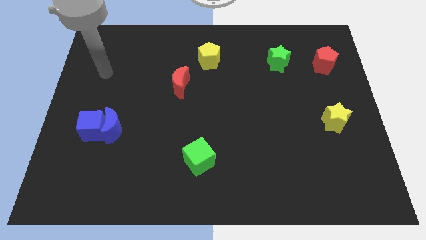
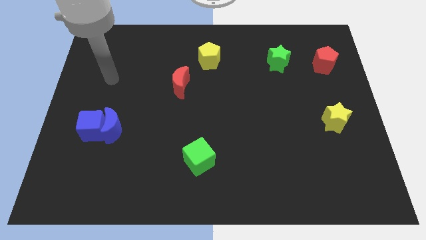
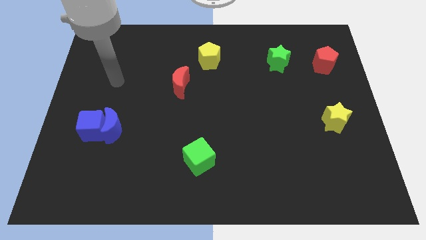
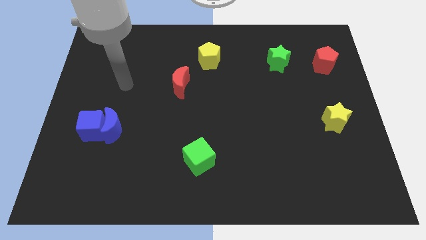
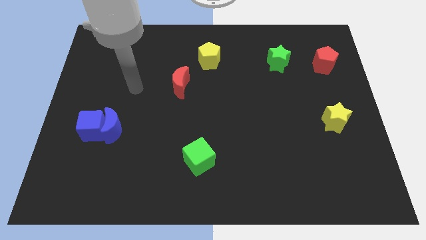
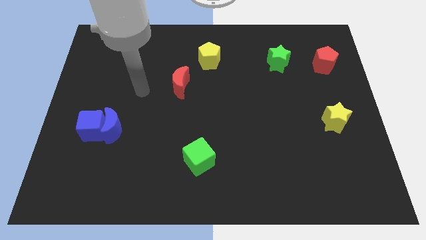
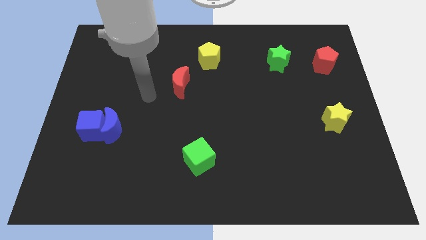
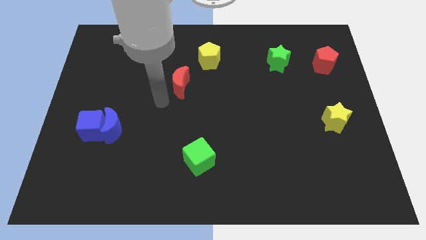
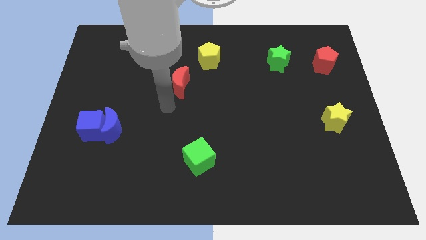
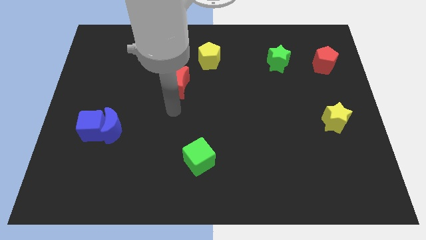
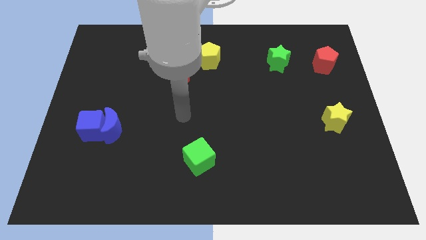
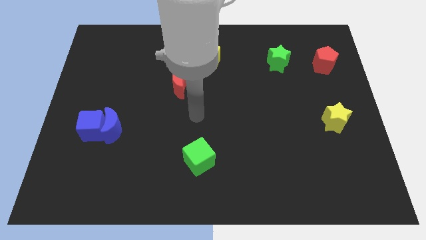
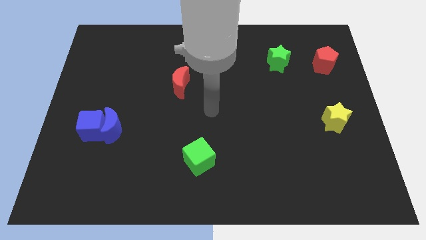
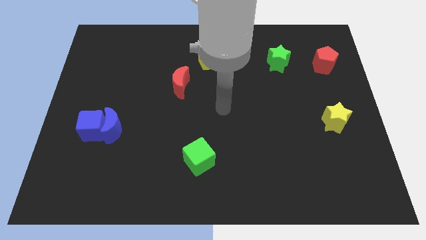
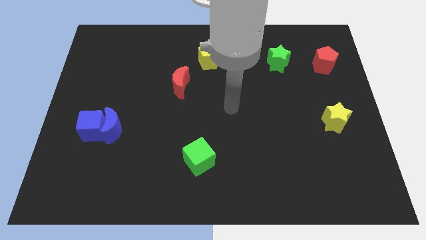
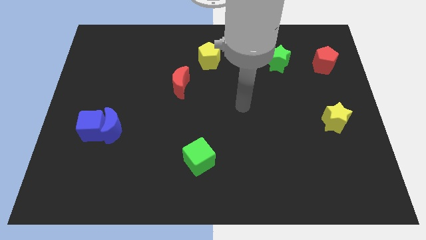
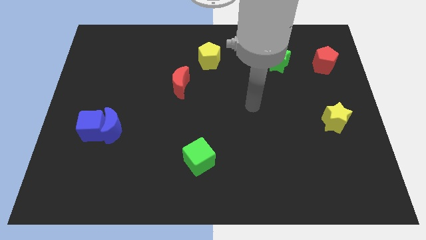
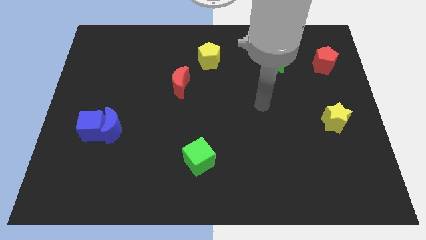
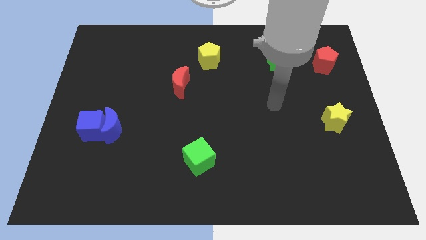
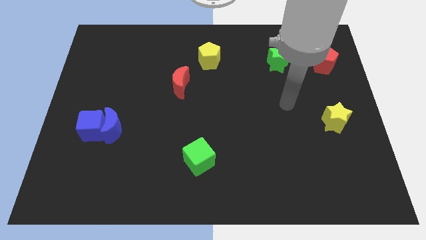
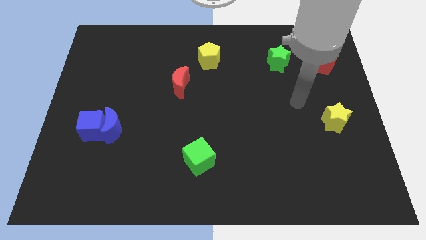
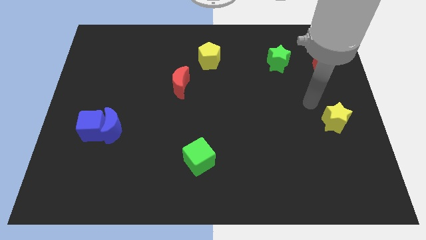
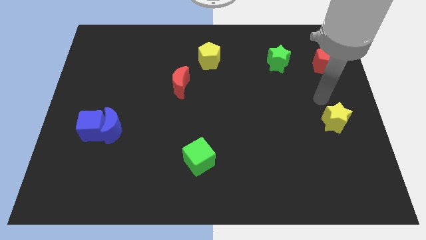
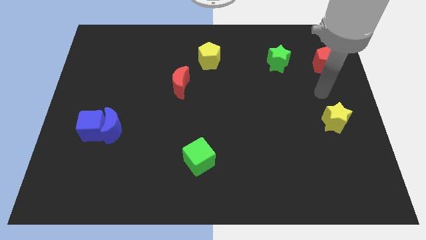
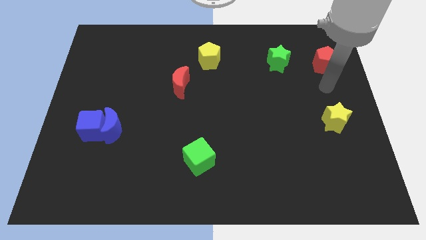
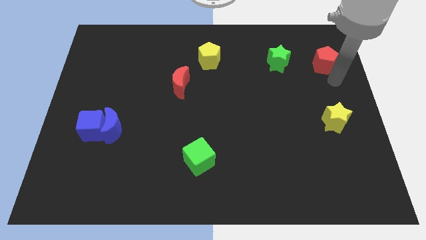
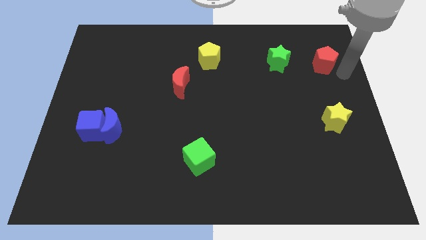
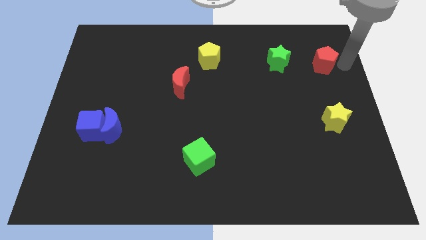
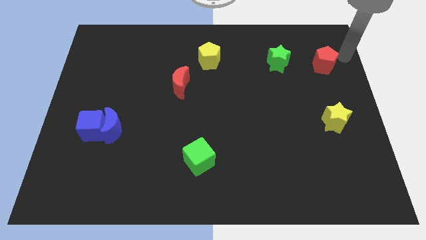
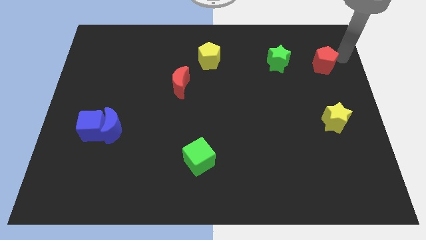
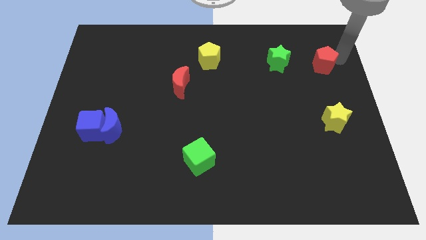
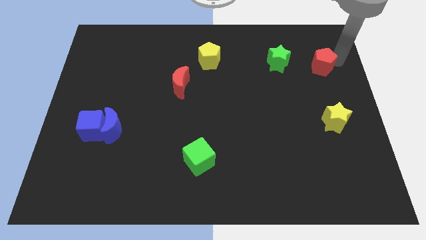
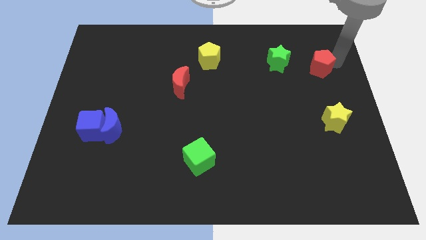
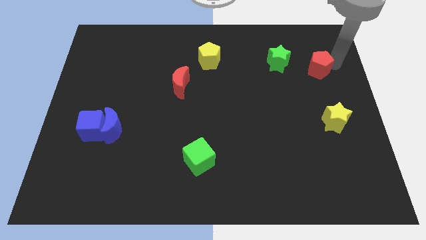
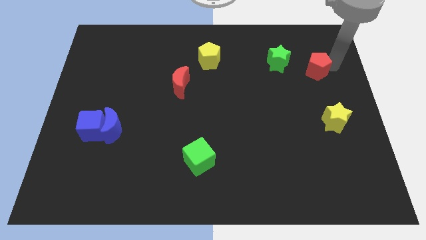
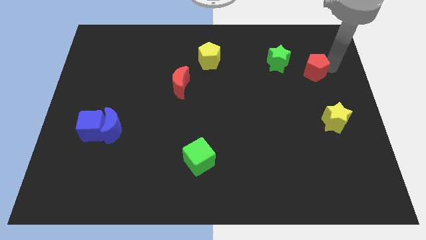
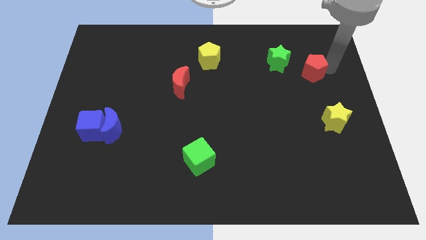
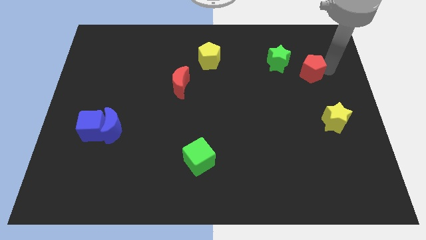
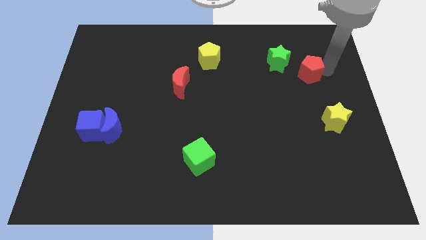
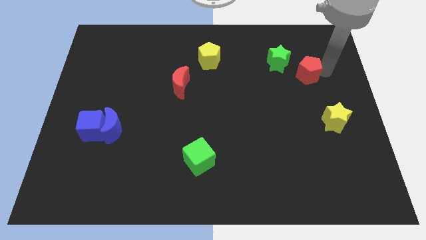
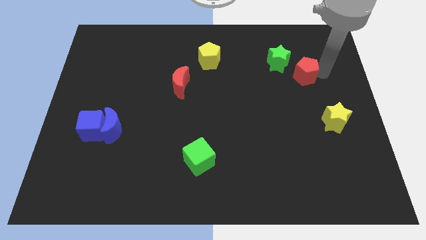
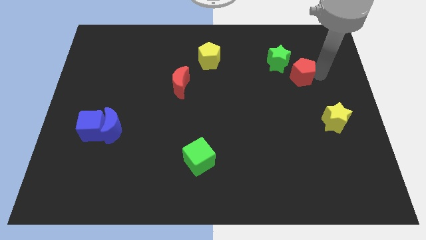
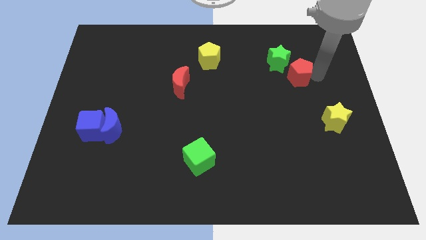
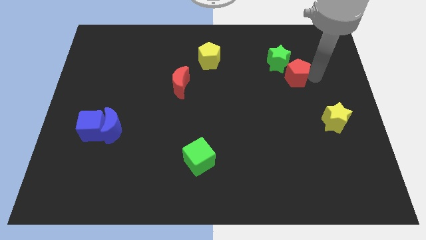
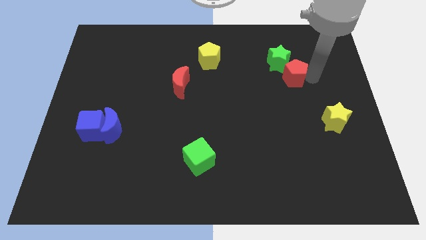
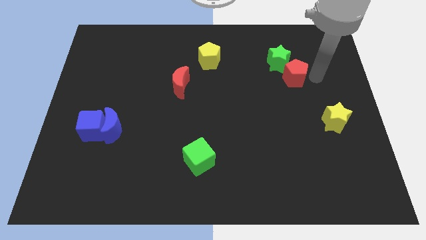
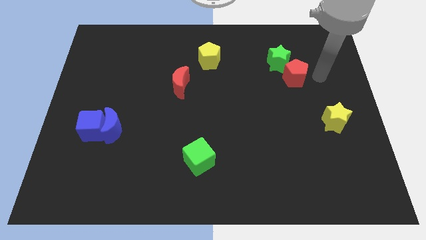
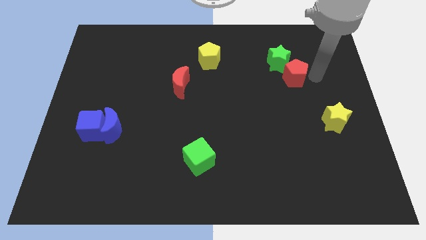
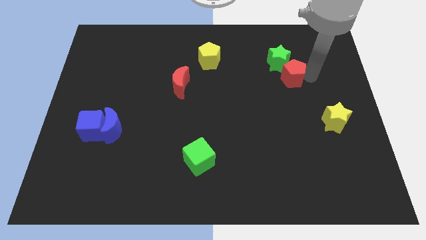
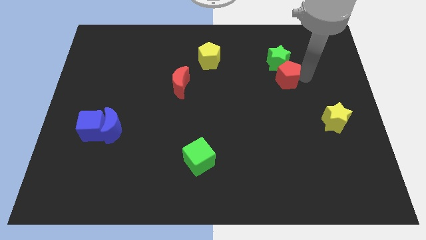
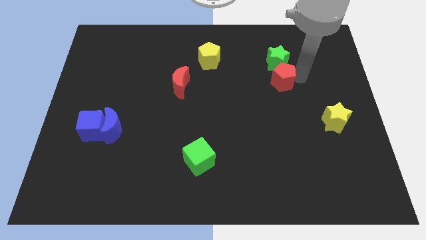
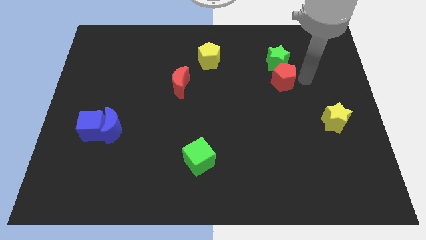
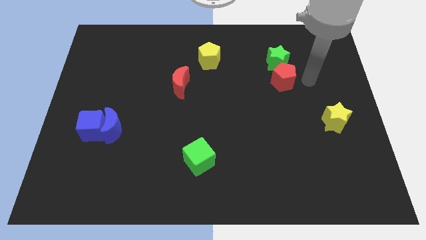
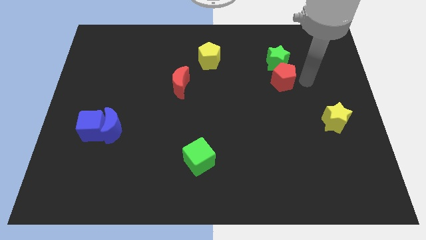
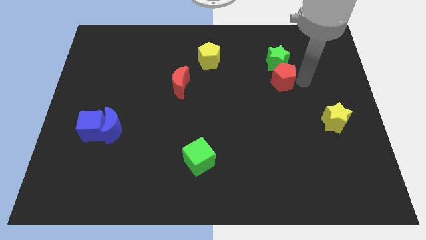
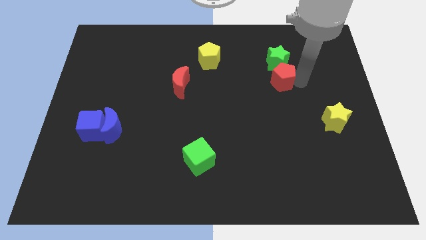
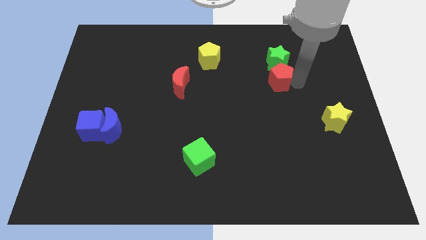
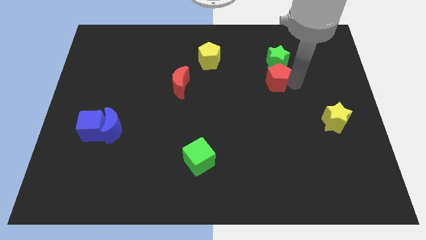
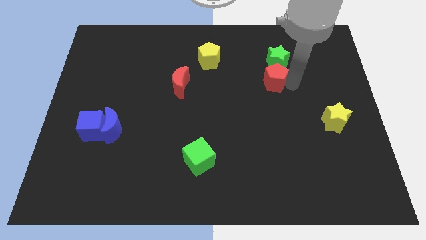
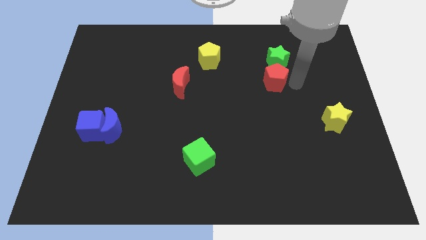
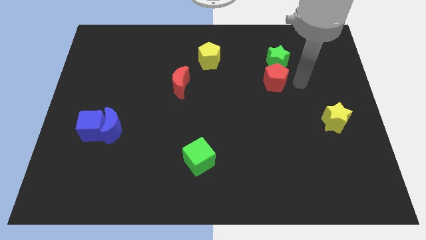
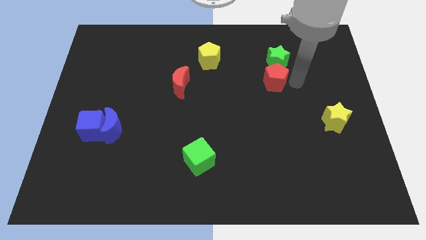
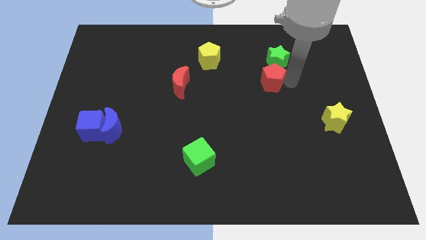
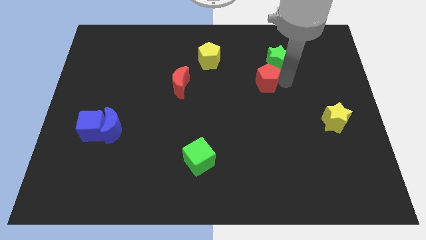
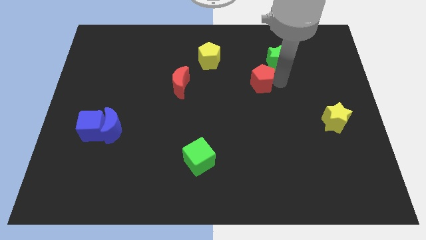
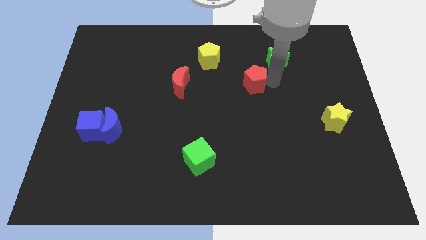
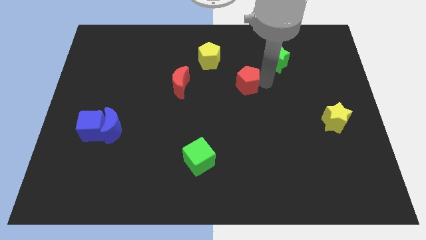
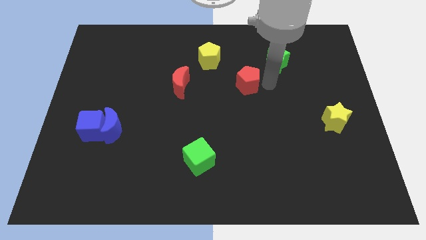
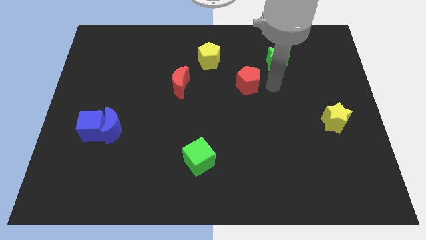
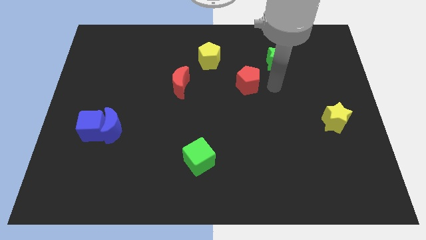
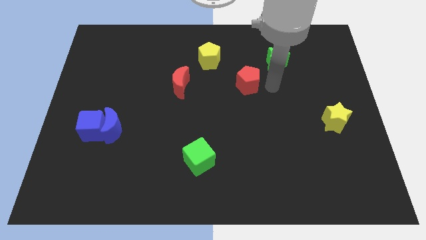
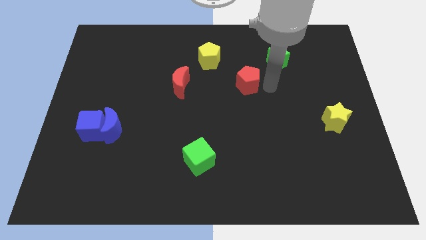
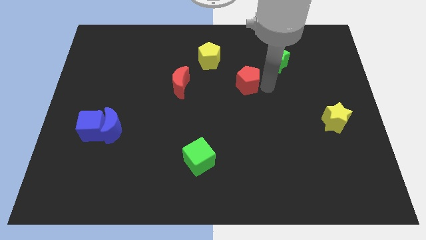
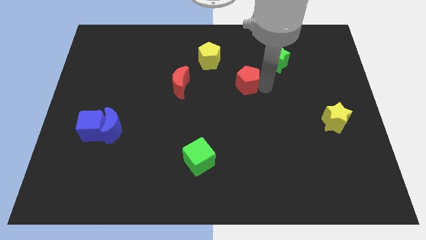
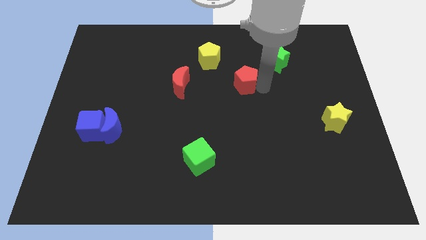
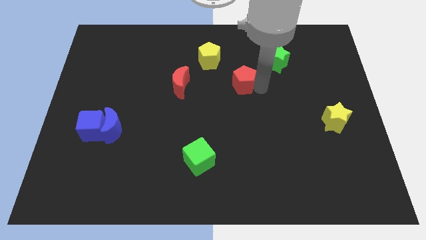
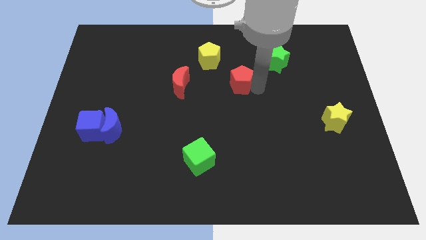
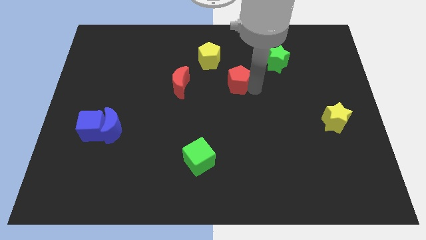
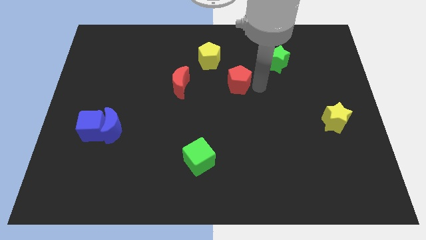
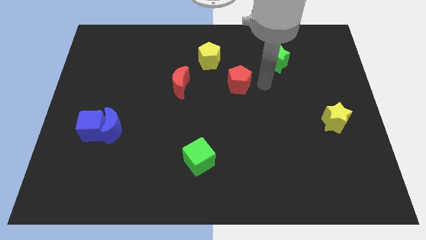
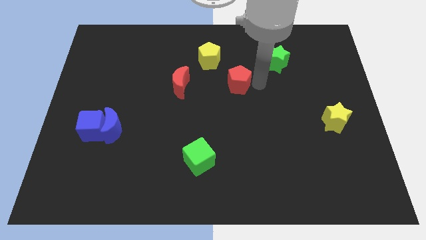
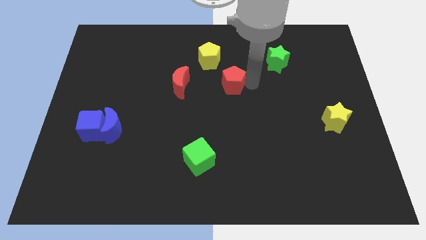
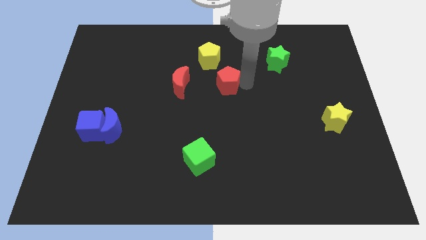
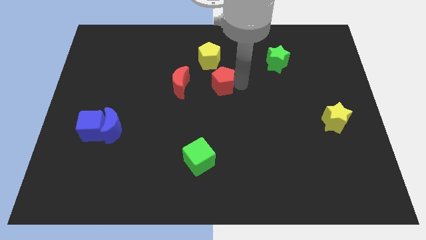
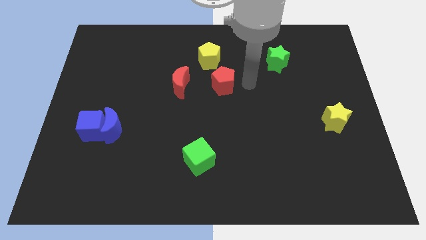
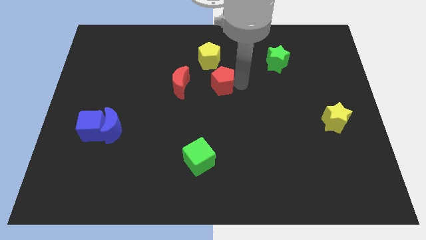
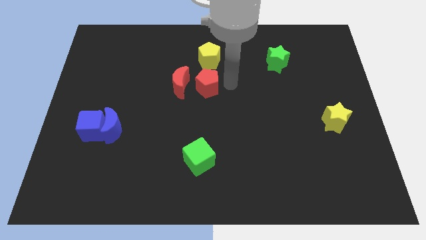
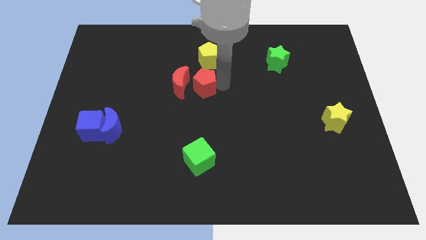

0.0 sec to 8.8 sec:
put the red pentagon to the red moon
